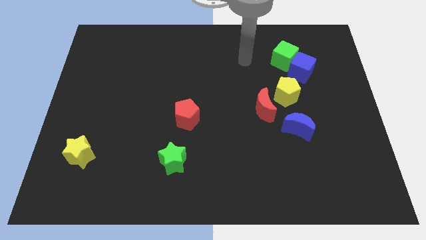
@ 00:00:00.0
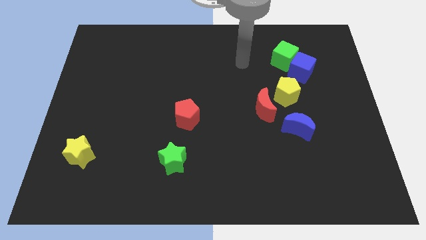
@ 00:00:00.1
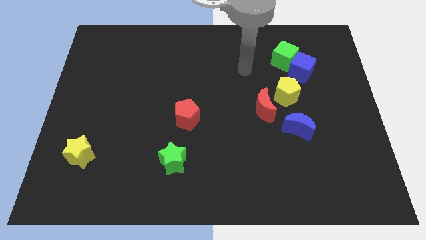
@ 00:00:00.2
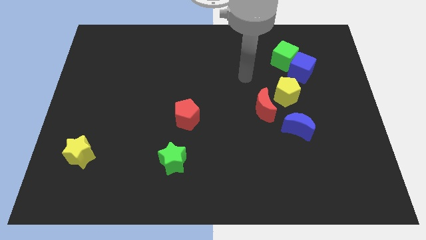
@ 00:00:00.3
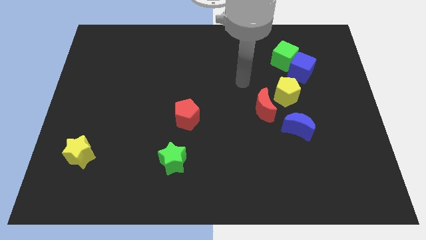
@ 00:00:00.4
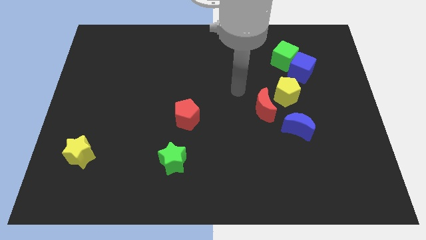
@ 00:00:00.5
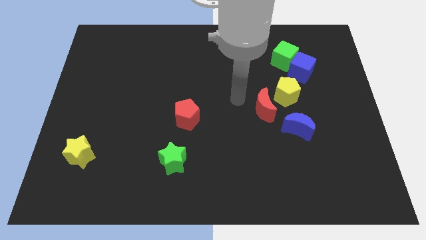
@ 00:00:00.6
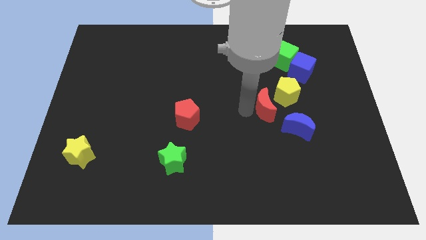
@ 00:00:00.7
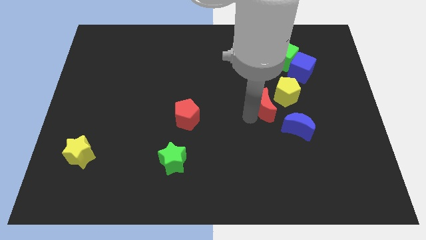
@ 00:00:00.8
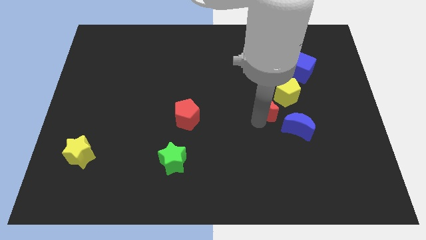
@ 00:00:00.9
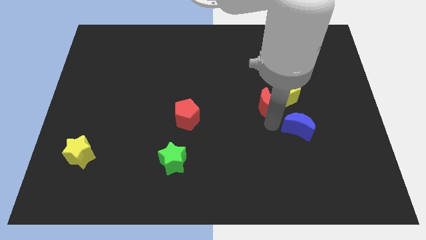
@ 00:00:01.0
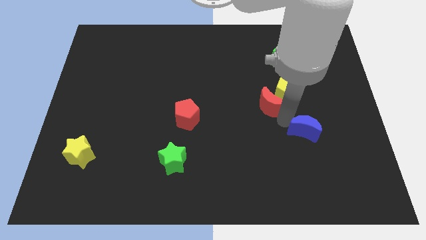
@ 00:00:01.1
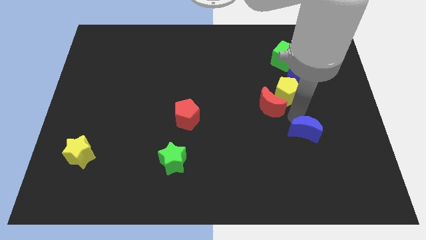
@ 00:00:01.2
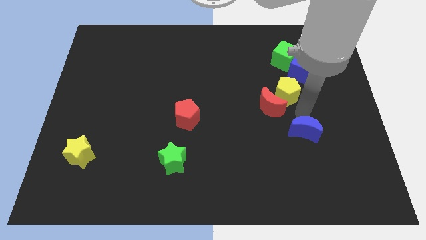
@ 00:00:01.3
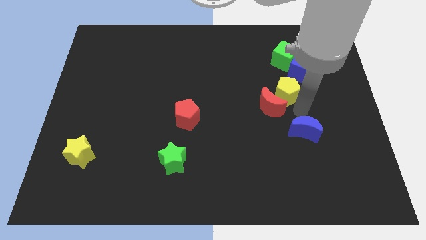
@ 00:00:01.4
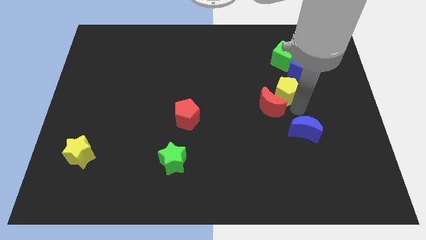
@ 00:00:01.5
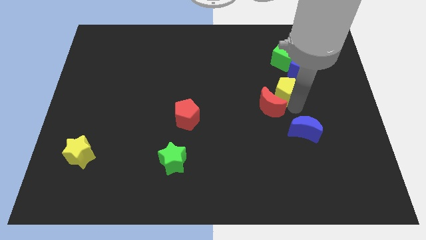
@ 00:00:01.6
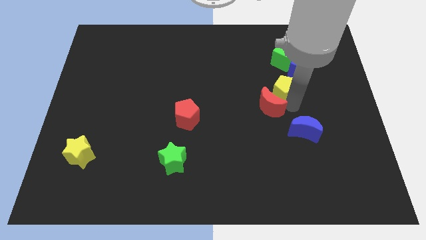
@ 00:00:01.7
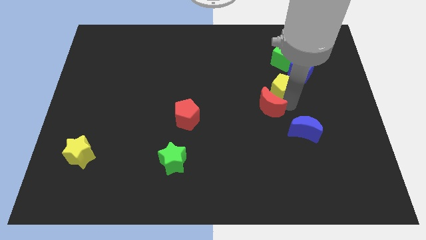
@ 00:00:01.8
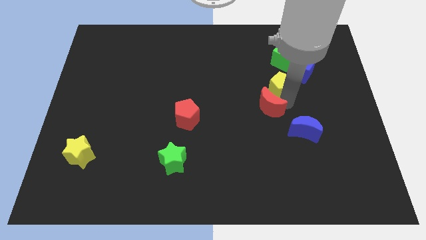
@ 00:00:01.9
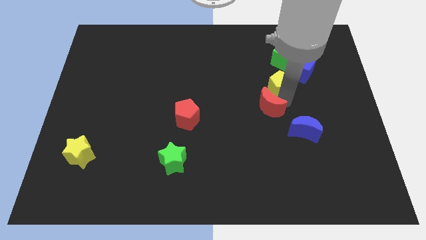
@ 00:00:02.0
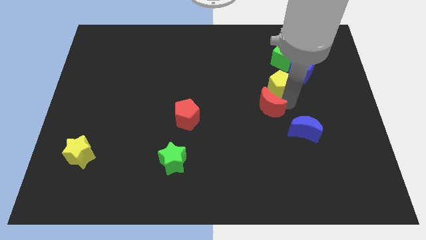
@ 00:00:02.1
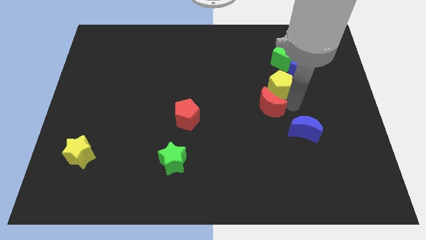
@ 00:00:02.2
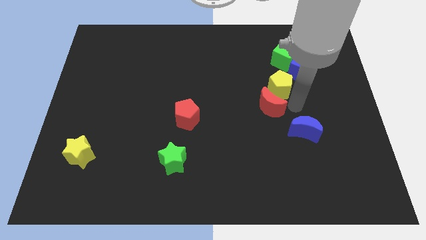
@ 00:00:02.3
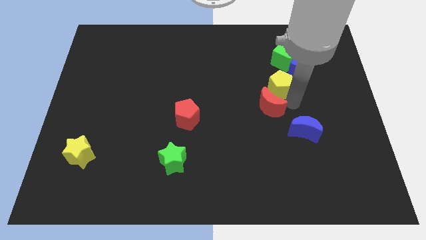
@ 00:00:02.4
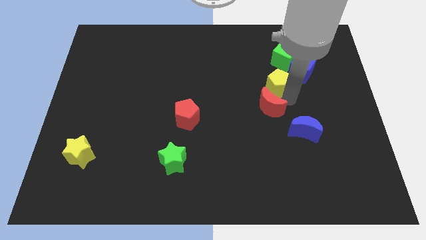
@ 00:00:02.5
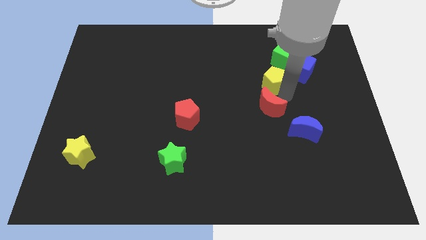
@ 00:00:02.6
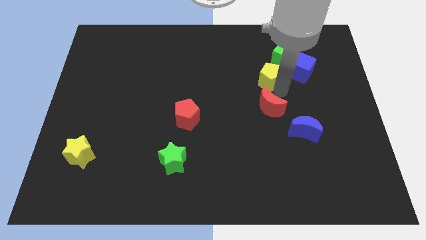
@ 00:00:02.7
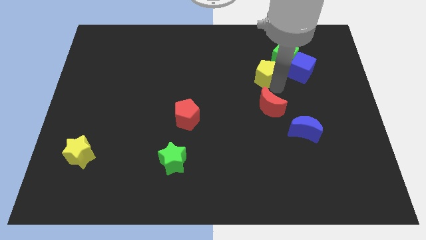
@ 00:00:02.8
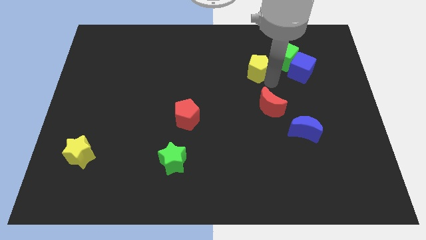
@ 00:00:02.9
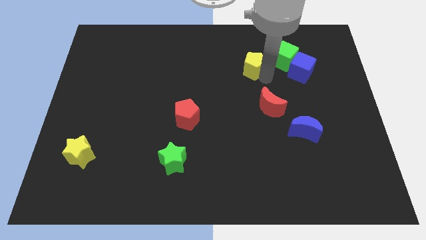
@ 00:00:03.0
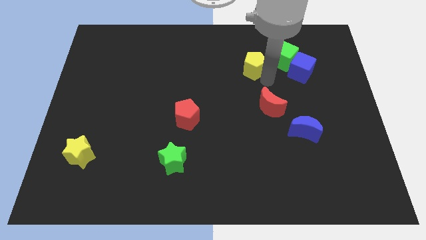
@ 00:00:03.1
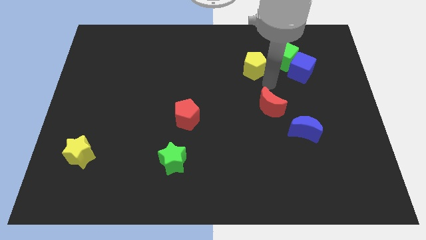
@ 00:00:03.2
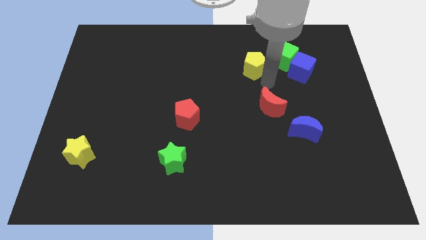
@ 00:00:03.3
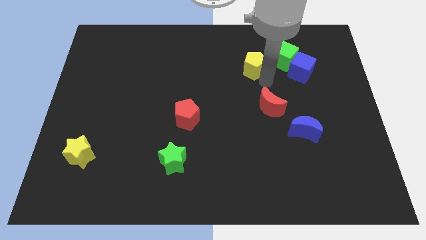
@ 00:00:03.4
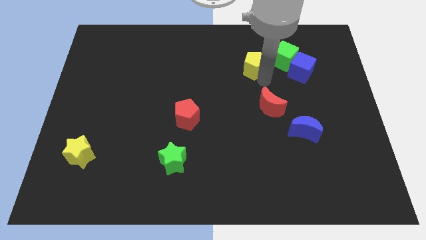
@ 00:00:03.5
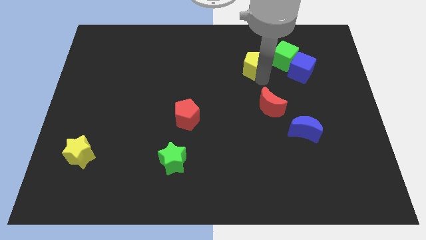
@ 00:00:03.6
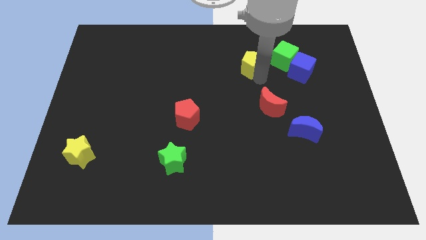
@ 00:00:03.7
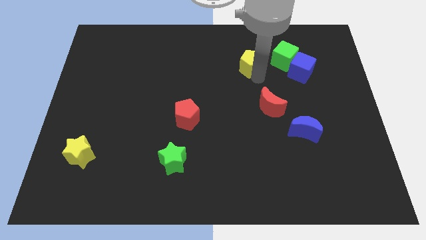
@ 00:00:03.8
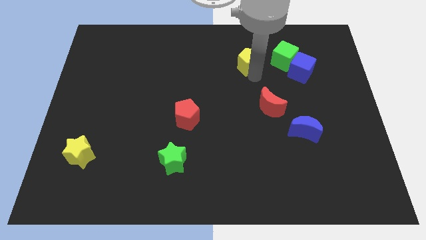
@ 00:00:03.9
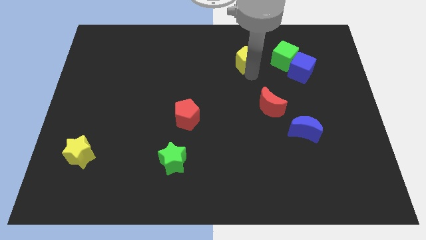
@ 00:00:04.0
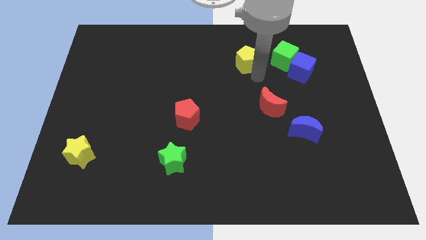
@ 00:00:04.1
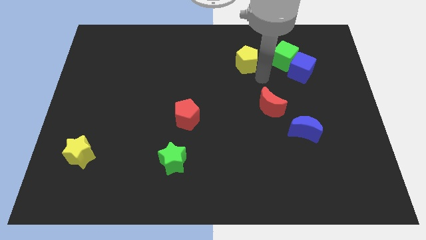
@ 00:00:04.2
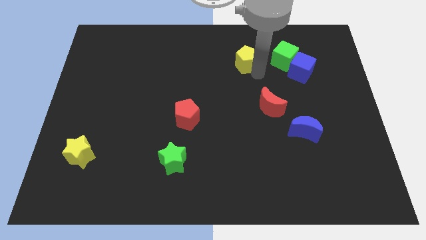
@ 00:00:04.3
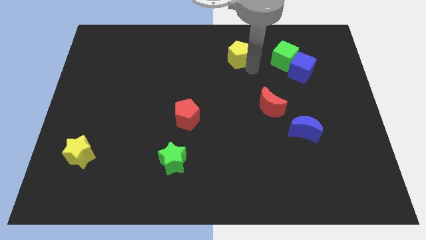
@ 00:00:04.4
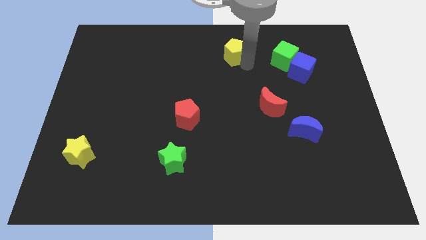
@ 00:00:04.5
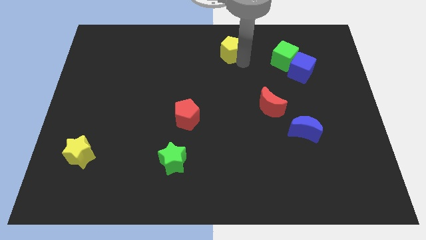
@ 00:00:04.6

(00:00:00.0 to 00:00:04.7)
slide the yellow pentagon to the top

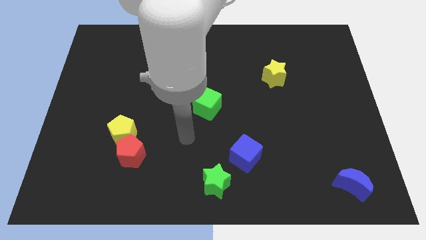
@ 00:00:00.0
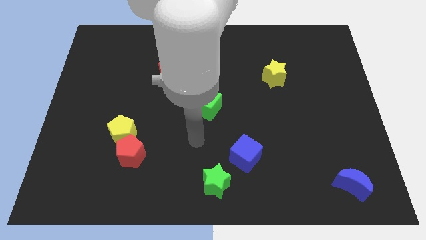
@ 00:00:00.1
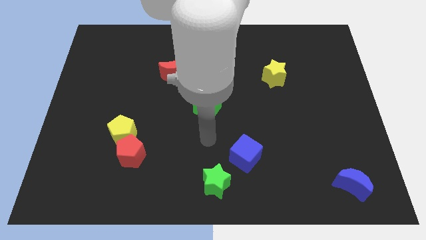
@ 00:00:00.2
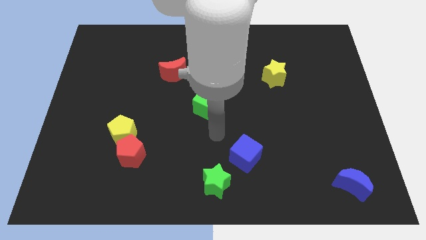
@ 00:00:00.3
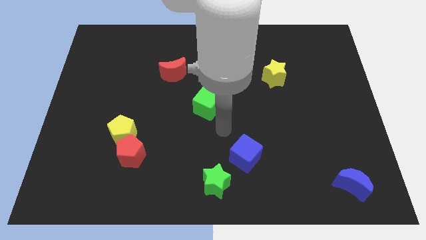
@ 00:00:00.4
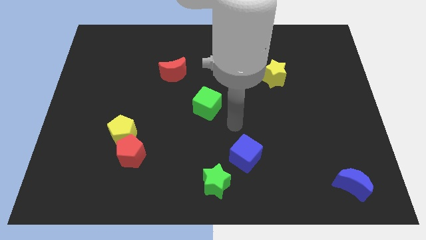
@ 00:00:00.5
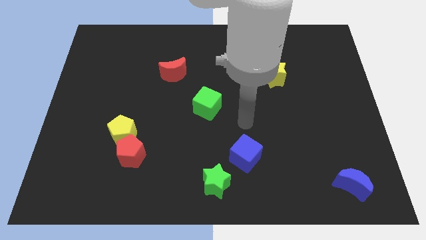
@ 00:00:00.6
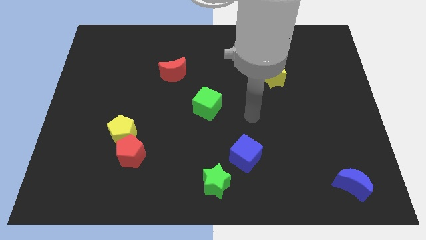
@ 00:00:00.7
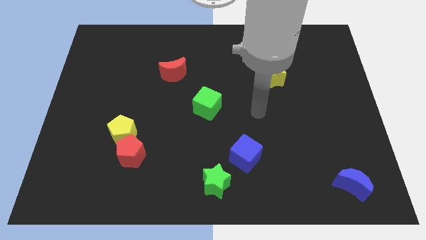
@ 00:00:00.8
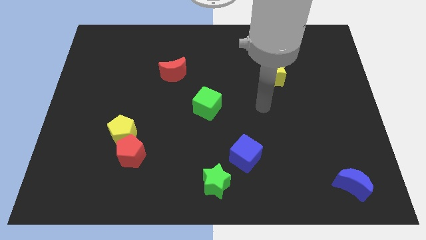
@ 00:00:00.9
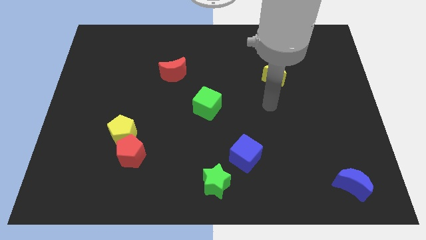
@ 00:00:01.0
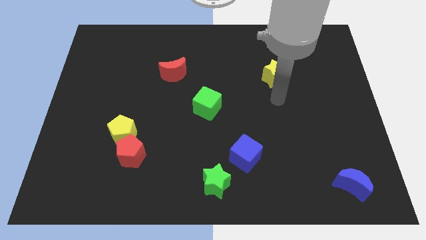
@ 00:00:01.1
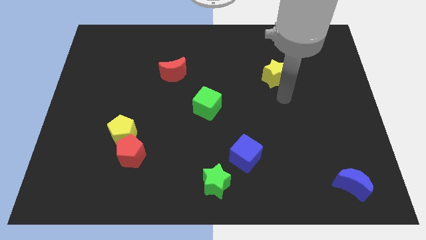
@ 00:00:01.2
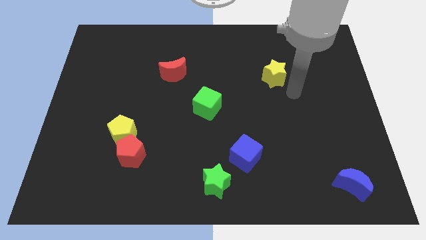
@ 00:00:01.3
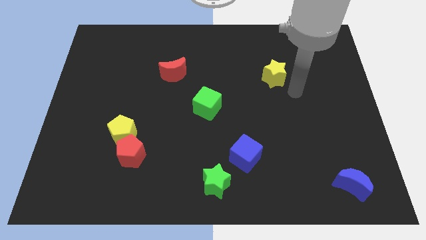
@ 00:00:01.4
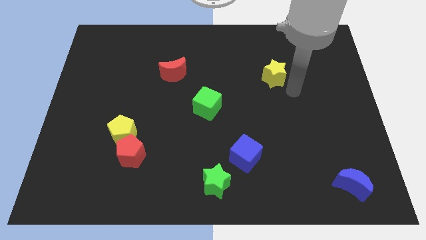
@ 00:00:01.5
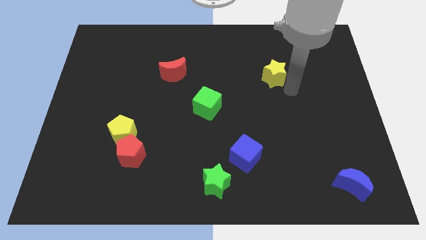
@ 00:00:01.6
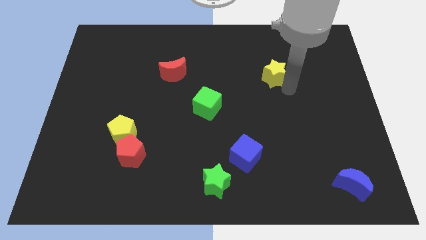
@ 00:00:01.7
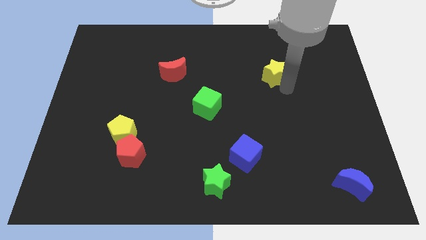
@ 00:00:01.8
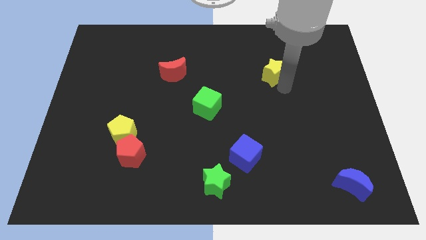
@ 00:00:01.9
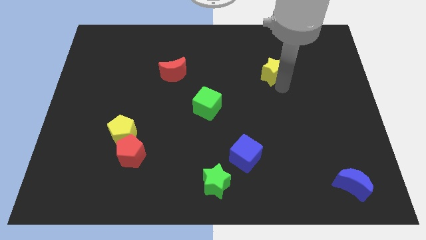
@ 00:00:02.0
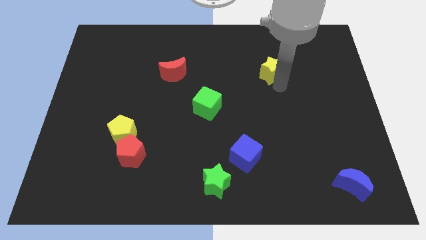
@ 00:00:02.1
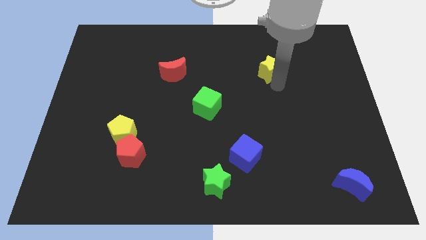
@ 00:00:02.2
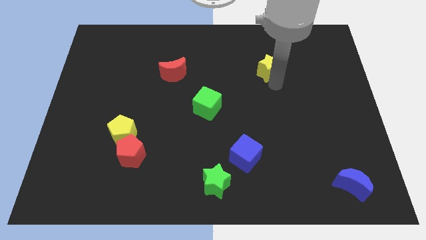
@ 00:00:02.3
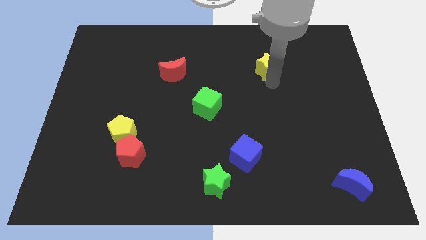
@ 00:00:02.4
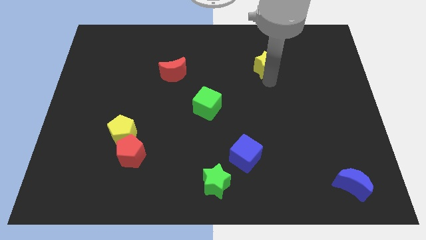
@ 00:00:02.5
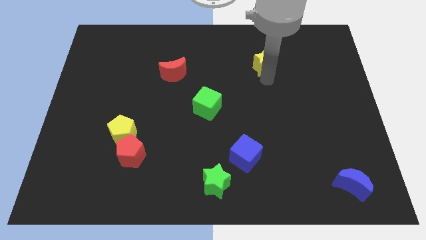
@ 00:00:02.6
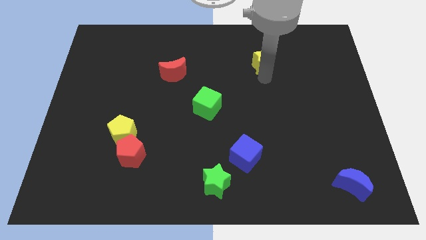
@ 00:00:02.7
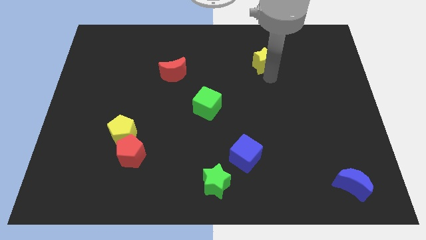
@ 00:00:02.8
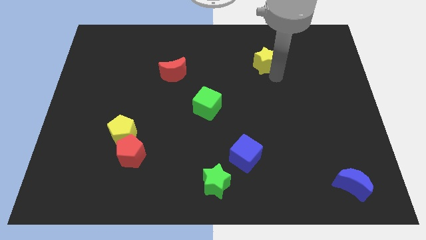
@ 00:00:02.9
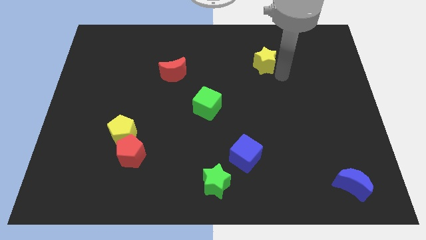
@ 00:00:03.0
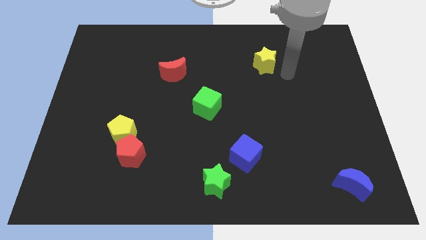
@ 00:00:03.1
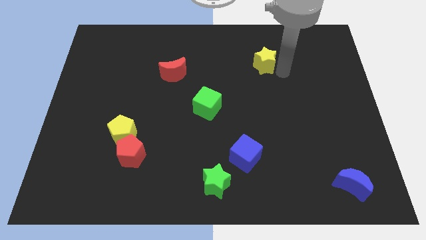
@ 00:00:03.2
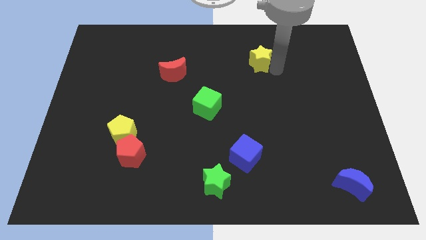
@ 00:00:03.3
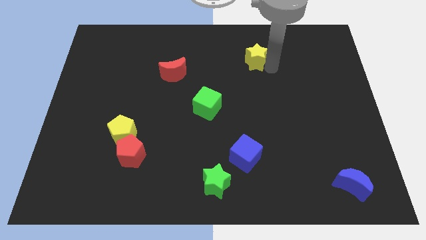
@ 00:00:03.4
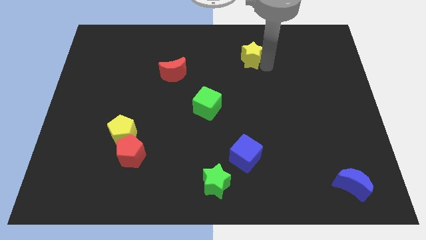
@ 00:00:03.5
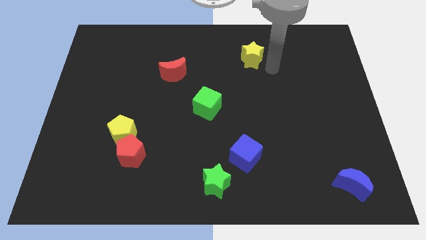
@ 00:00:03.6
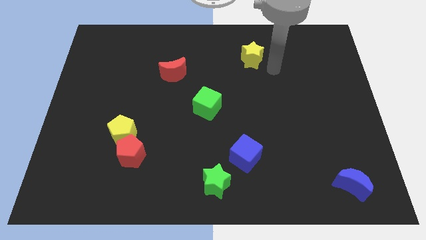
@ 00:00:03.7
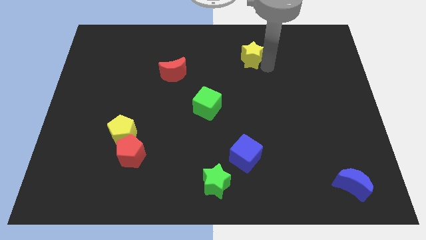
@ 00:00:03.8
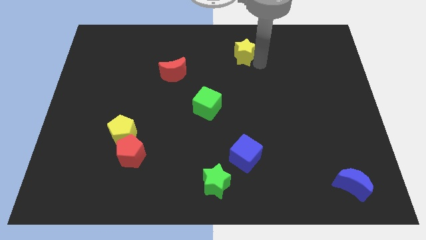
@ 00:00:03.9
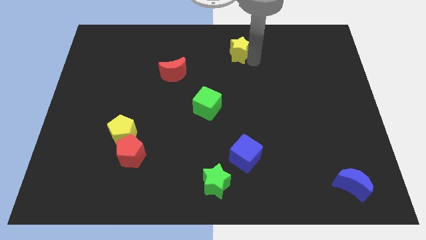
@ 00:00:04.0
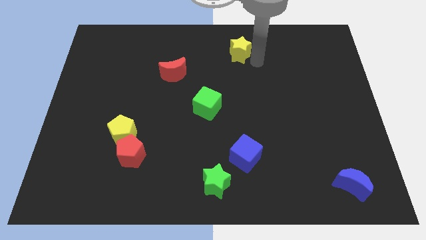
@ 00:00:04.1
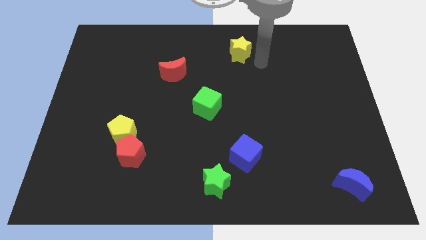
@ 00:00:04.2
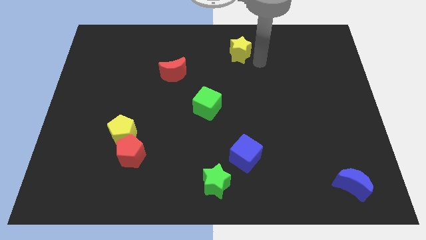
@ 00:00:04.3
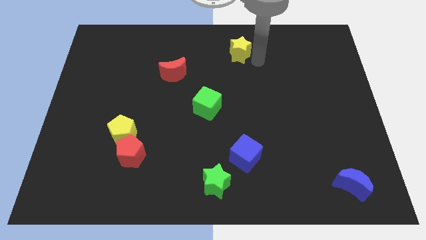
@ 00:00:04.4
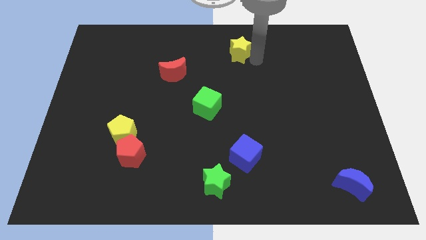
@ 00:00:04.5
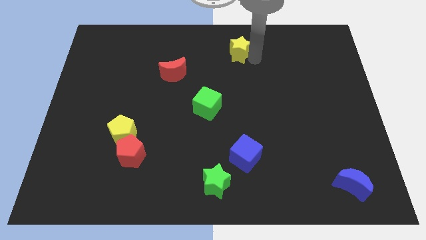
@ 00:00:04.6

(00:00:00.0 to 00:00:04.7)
push the yellow star to the top side
